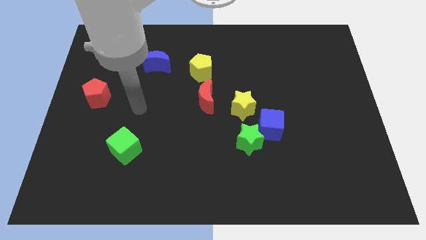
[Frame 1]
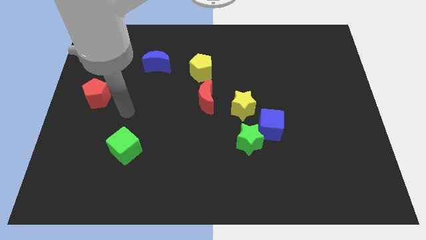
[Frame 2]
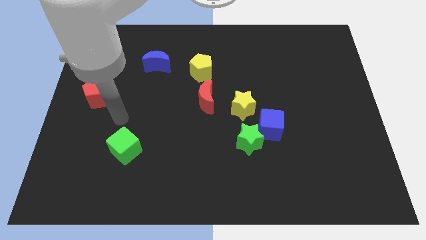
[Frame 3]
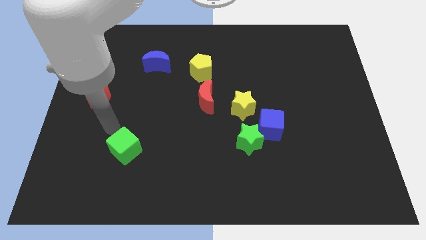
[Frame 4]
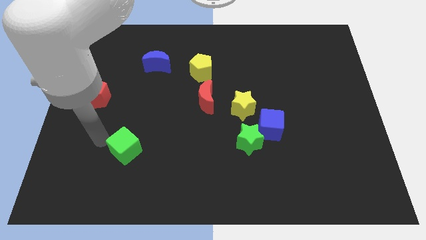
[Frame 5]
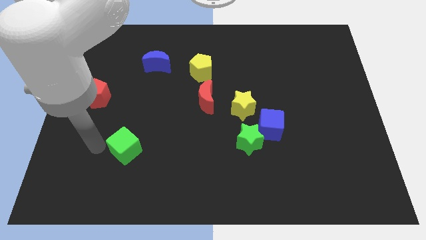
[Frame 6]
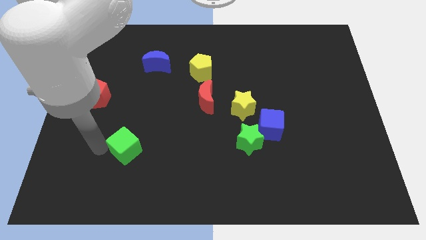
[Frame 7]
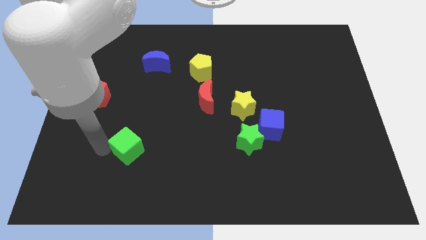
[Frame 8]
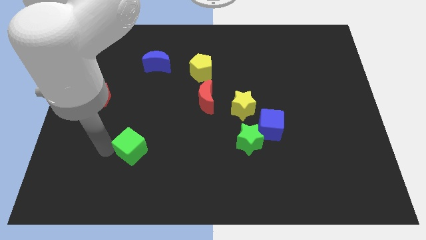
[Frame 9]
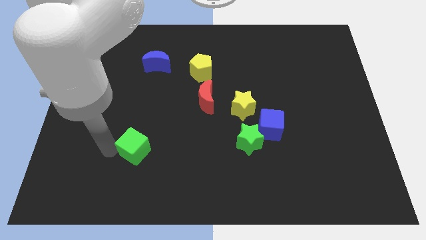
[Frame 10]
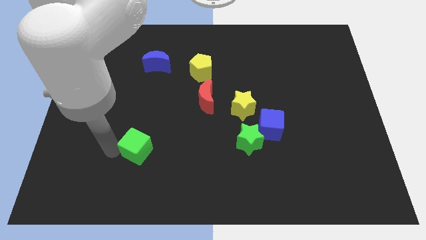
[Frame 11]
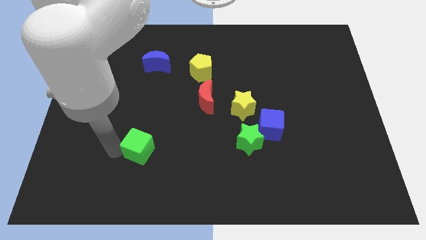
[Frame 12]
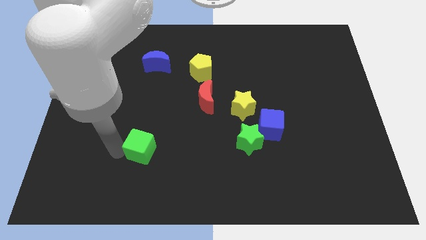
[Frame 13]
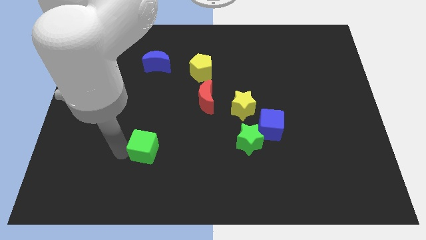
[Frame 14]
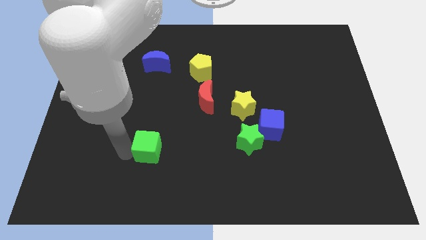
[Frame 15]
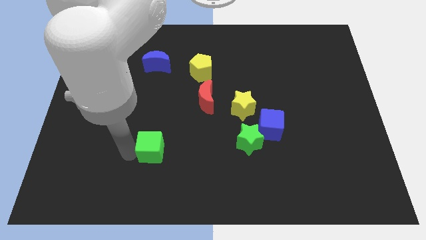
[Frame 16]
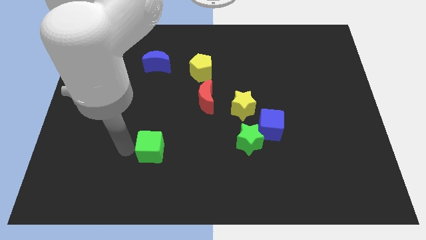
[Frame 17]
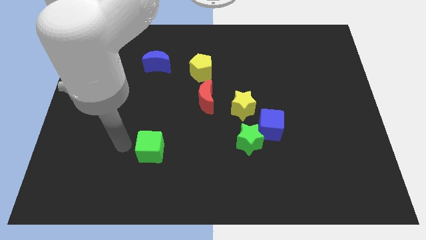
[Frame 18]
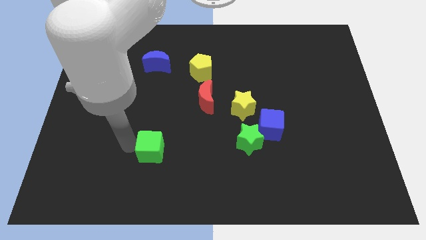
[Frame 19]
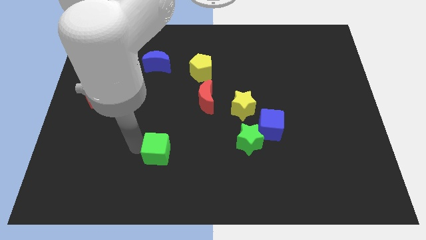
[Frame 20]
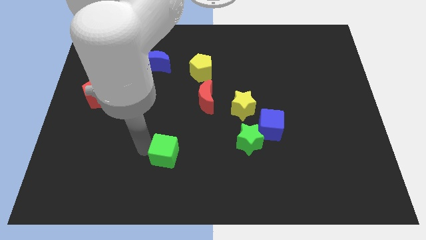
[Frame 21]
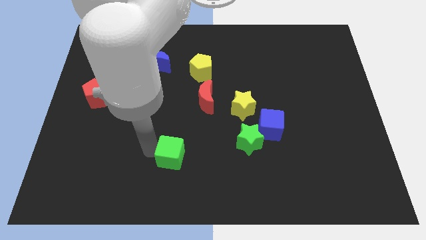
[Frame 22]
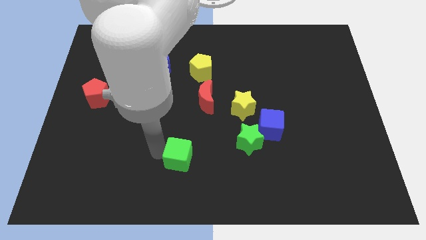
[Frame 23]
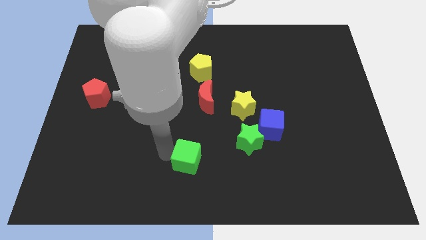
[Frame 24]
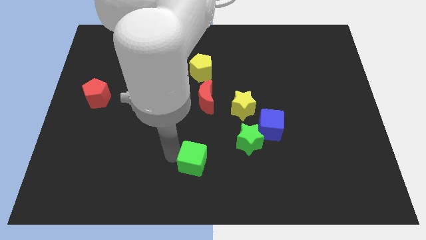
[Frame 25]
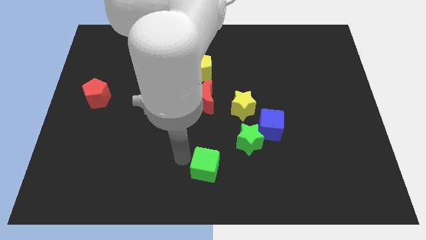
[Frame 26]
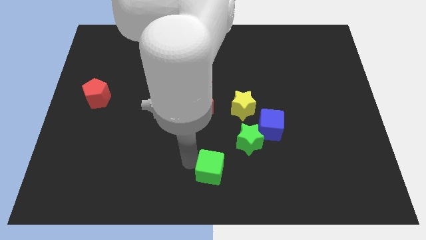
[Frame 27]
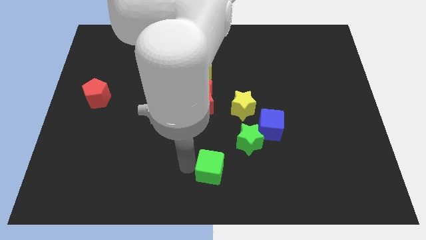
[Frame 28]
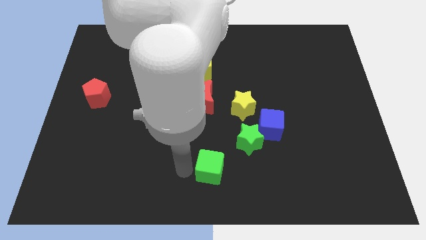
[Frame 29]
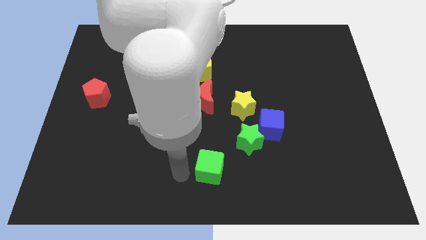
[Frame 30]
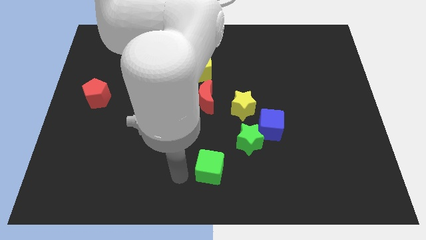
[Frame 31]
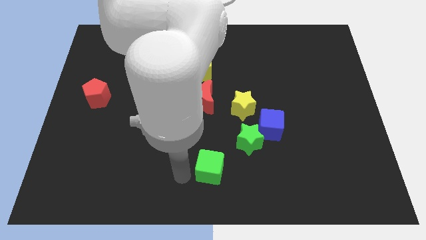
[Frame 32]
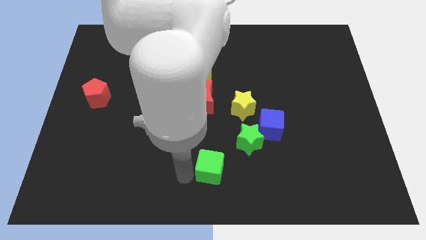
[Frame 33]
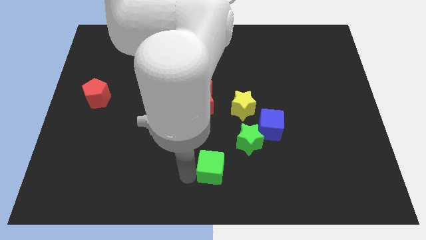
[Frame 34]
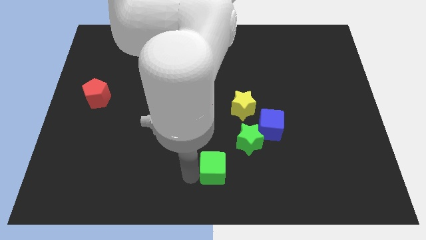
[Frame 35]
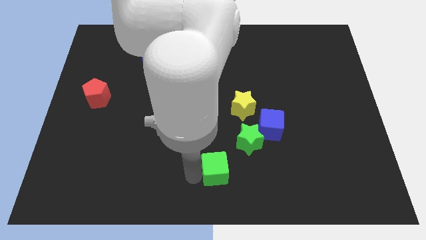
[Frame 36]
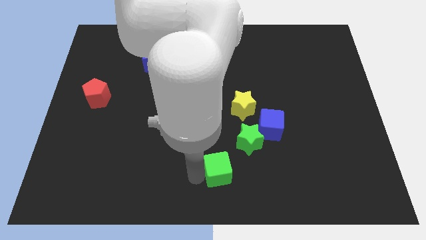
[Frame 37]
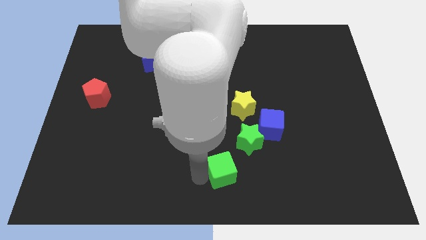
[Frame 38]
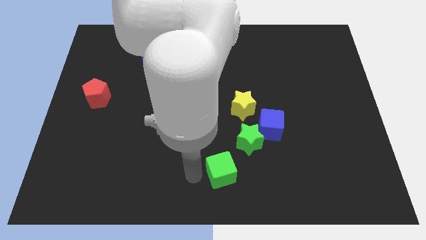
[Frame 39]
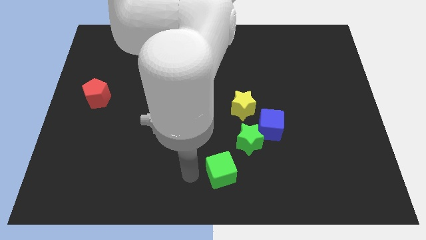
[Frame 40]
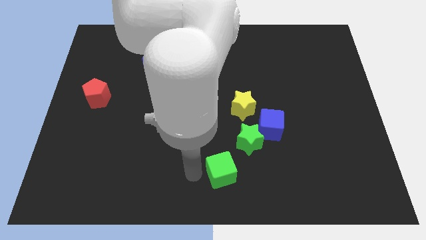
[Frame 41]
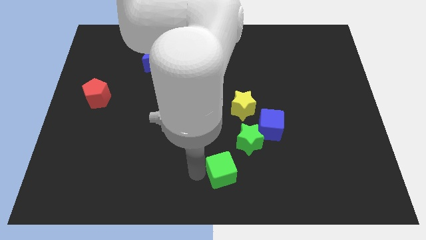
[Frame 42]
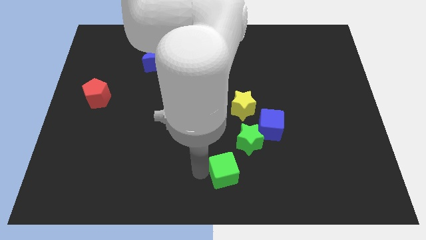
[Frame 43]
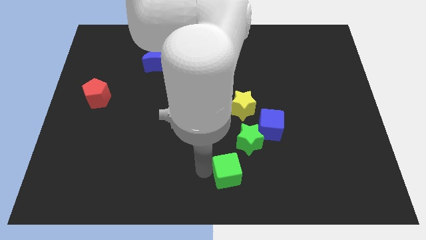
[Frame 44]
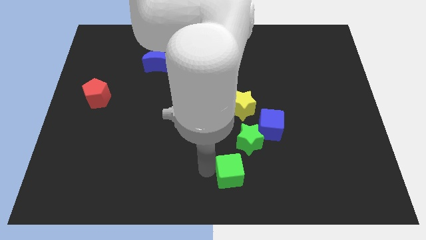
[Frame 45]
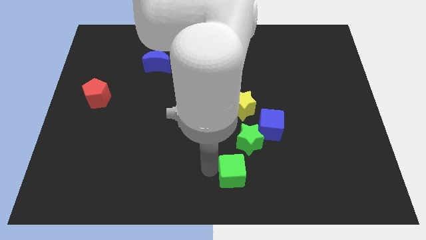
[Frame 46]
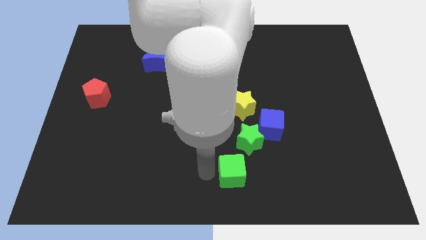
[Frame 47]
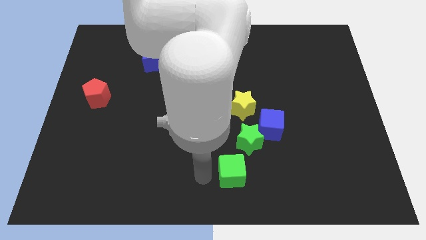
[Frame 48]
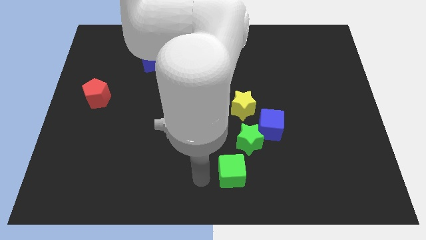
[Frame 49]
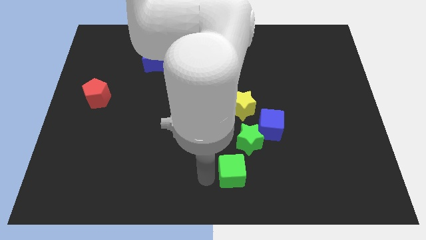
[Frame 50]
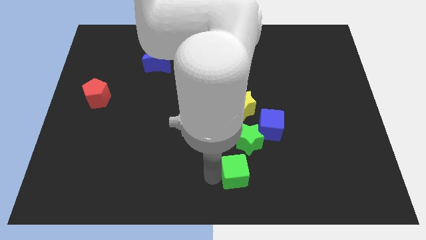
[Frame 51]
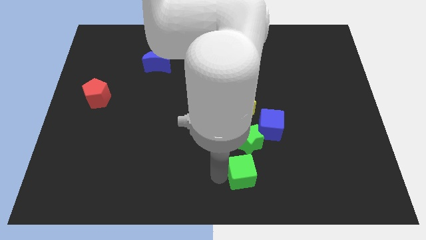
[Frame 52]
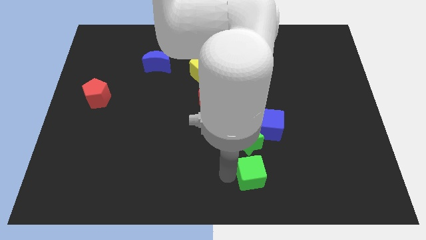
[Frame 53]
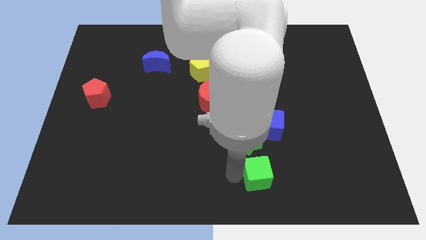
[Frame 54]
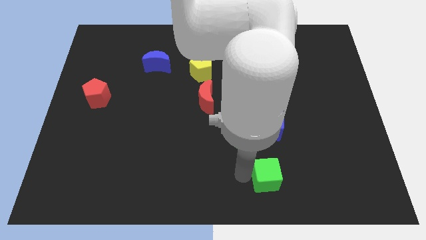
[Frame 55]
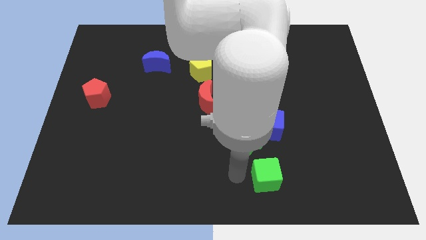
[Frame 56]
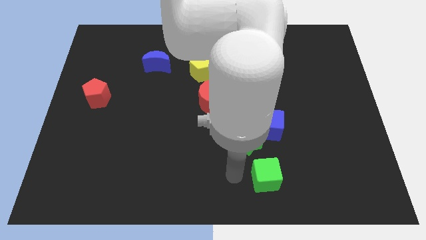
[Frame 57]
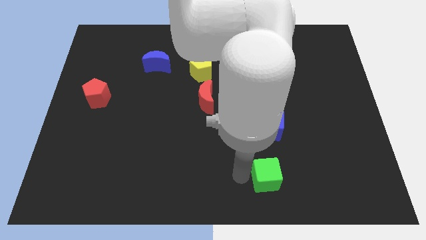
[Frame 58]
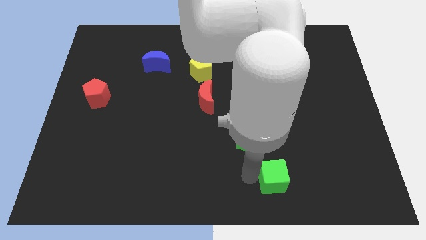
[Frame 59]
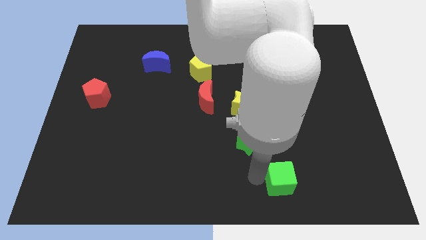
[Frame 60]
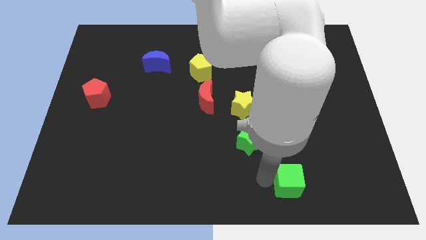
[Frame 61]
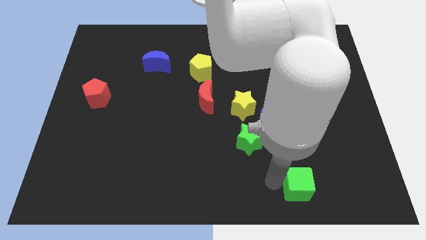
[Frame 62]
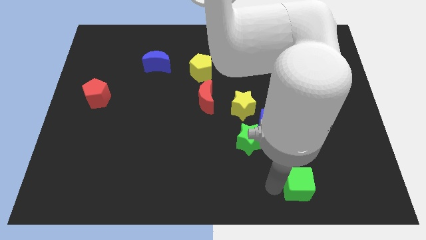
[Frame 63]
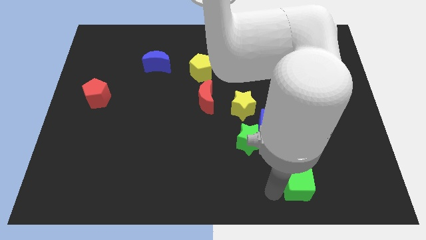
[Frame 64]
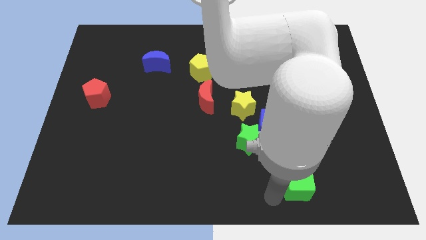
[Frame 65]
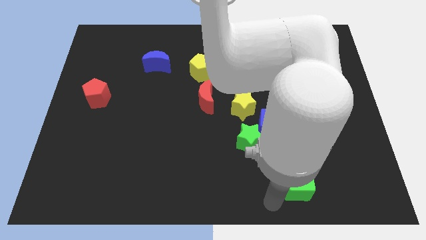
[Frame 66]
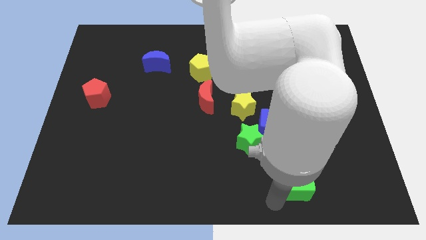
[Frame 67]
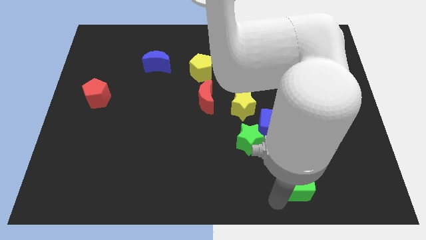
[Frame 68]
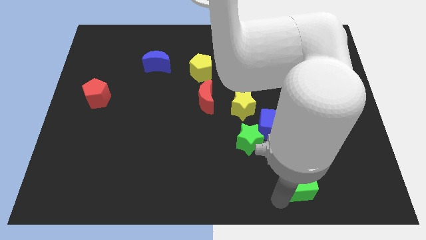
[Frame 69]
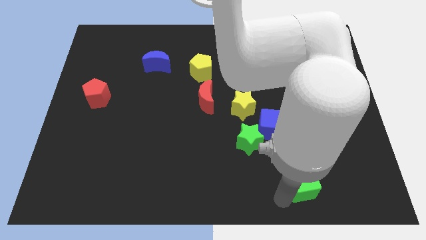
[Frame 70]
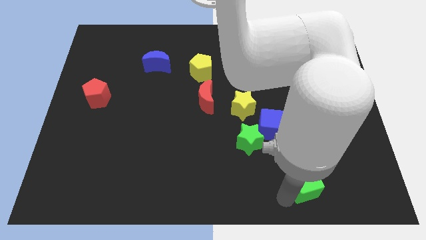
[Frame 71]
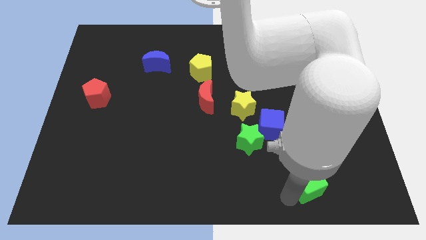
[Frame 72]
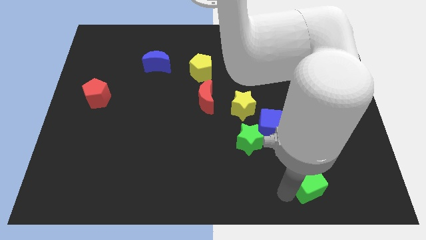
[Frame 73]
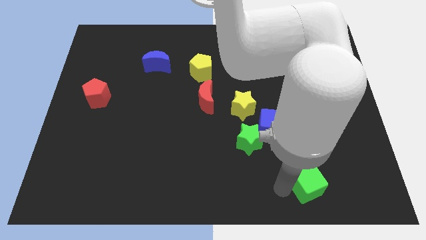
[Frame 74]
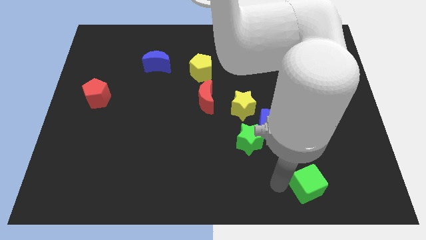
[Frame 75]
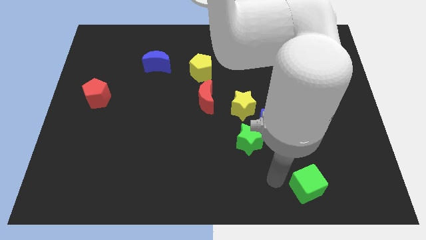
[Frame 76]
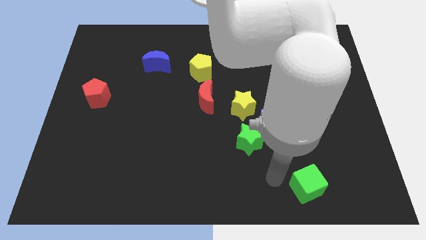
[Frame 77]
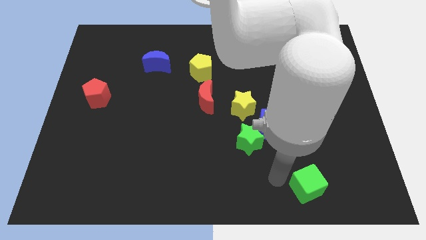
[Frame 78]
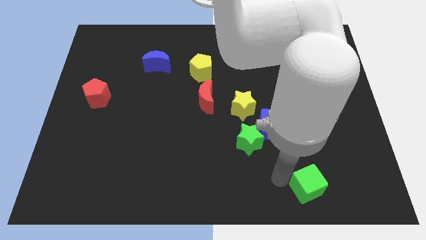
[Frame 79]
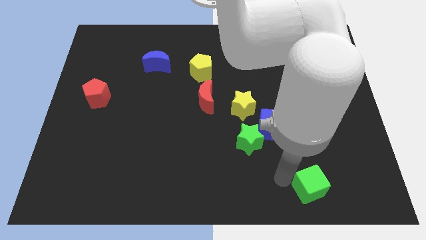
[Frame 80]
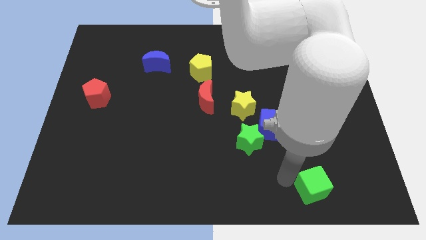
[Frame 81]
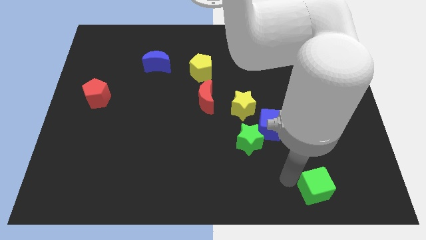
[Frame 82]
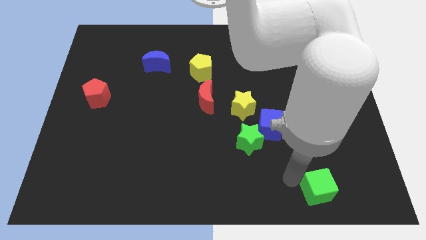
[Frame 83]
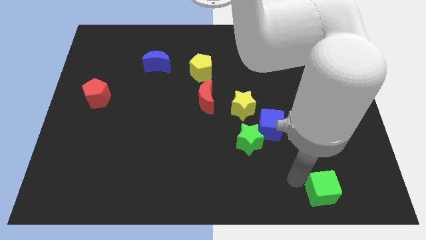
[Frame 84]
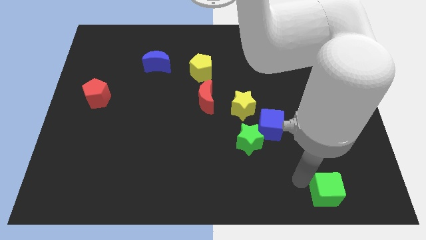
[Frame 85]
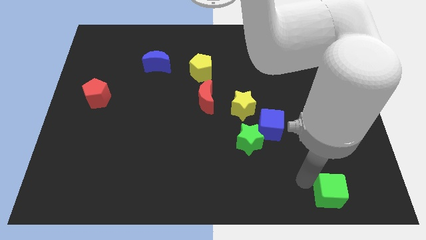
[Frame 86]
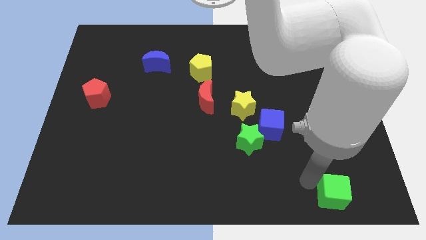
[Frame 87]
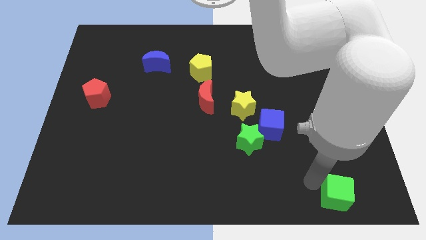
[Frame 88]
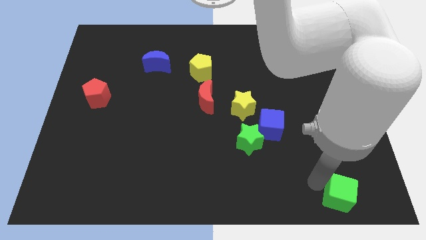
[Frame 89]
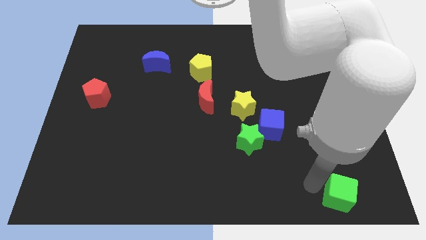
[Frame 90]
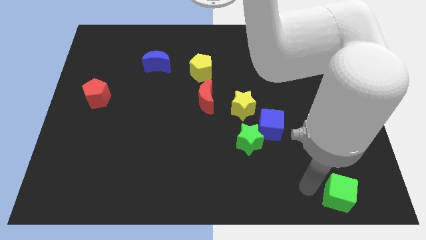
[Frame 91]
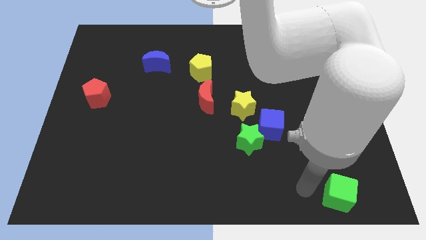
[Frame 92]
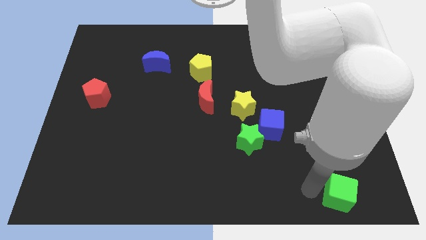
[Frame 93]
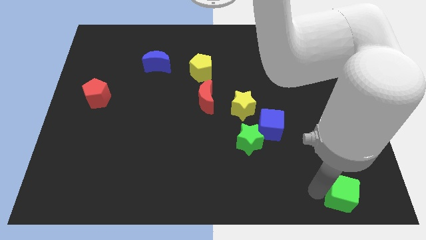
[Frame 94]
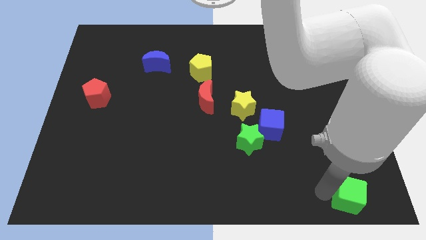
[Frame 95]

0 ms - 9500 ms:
put the green cube to the bottom right
